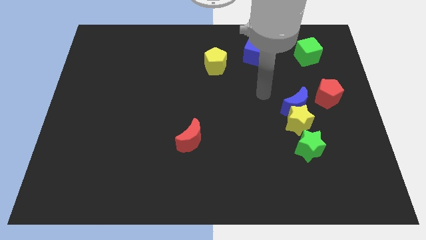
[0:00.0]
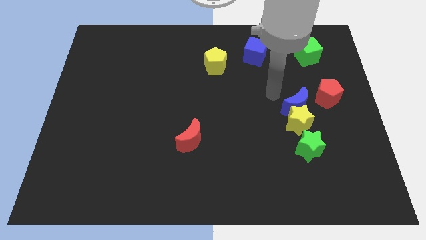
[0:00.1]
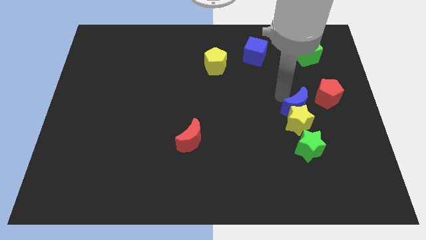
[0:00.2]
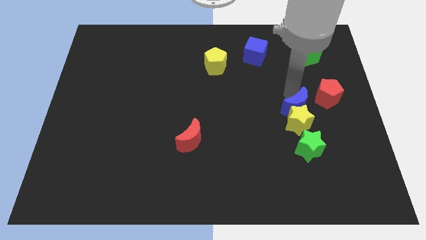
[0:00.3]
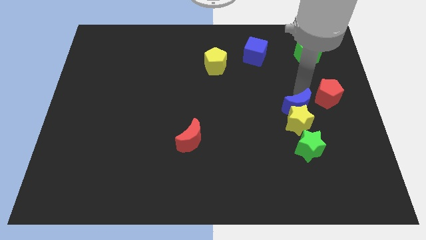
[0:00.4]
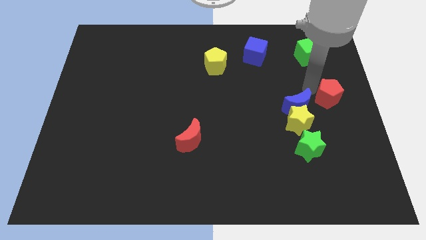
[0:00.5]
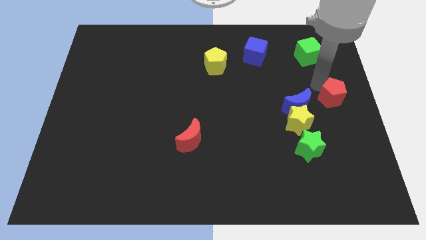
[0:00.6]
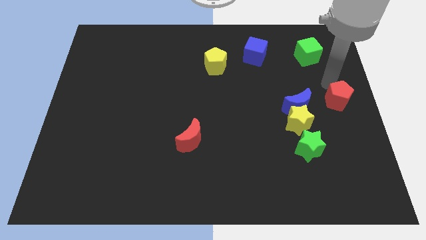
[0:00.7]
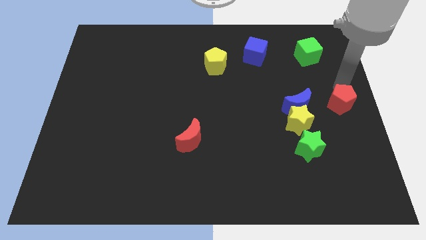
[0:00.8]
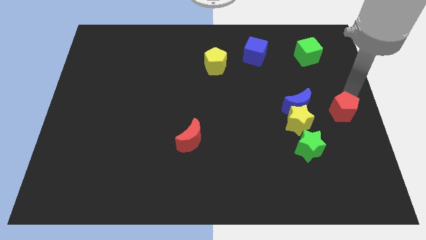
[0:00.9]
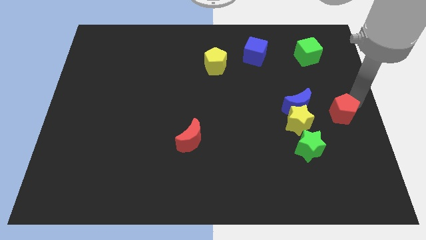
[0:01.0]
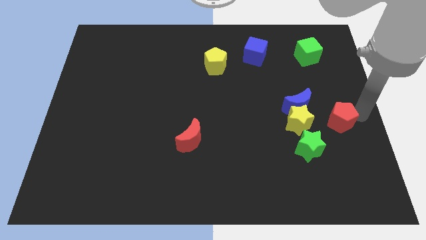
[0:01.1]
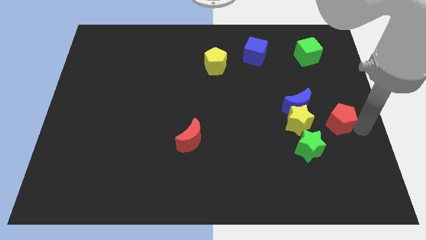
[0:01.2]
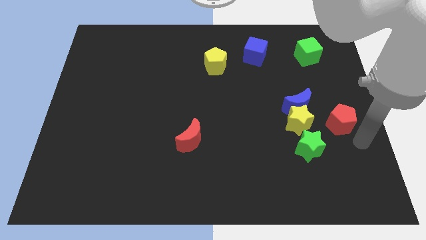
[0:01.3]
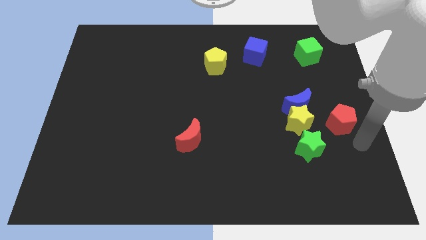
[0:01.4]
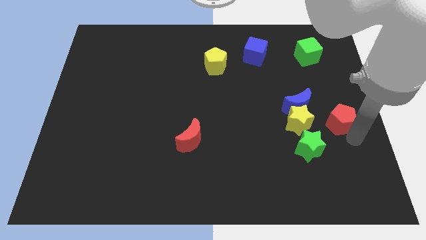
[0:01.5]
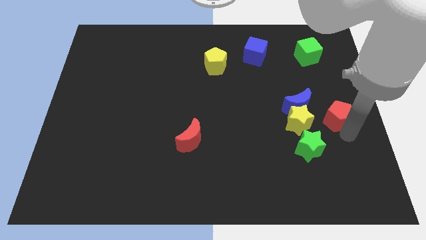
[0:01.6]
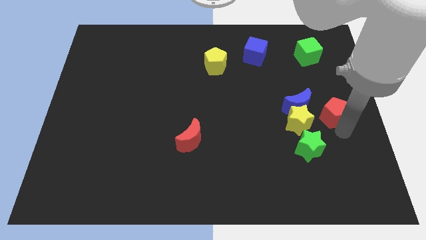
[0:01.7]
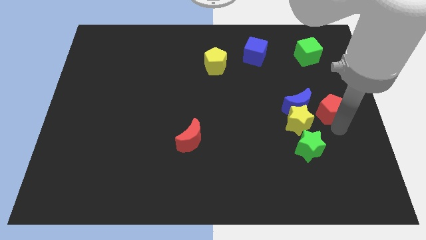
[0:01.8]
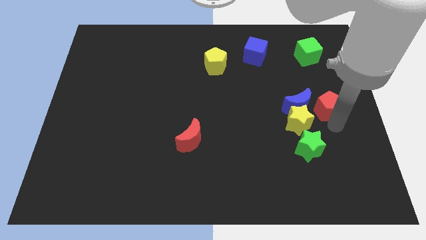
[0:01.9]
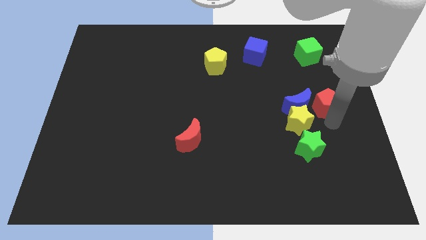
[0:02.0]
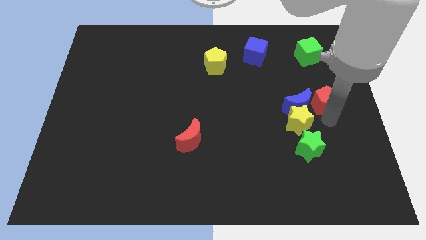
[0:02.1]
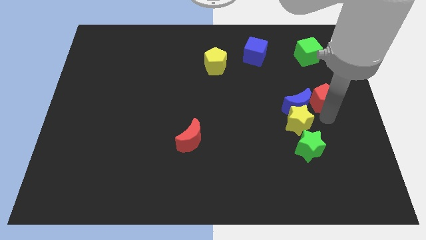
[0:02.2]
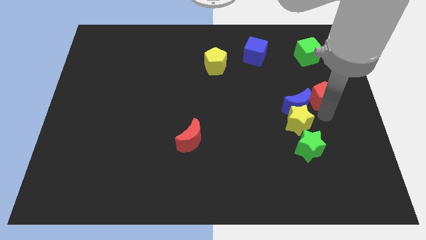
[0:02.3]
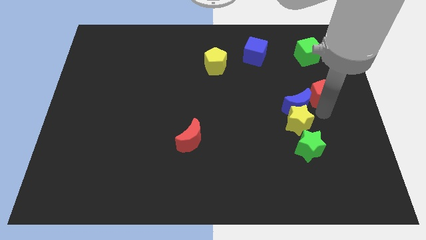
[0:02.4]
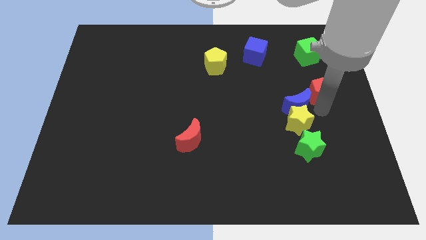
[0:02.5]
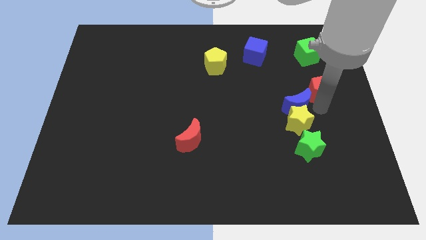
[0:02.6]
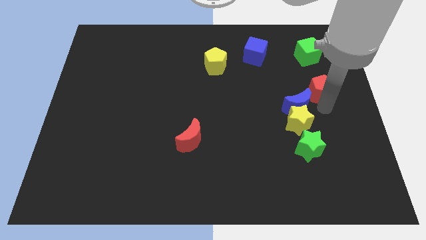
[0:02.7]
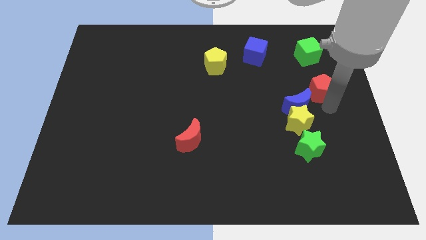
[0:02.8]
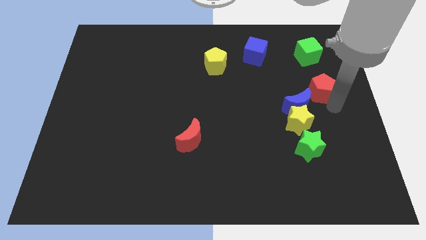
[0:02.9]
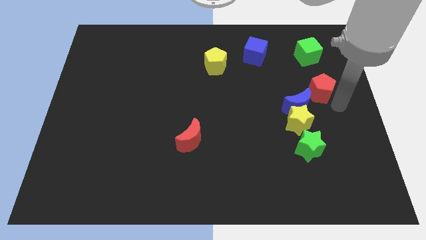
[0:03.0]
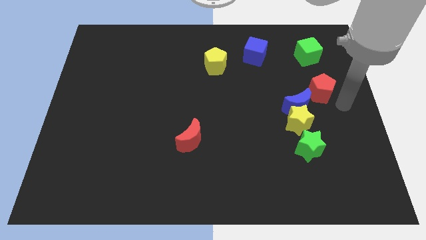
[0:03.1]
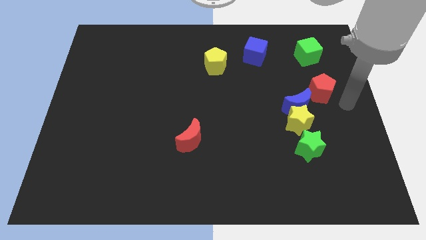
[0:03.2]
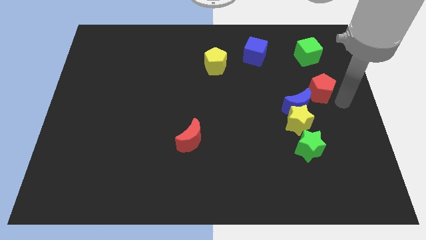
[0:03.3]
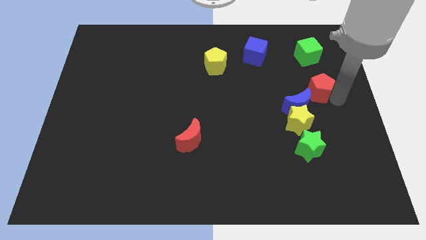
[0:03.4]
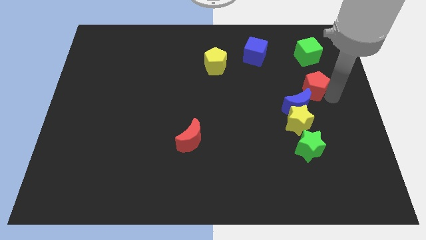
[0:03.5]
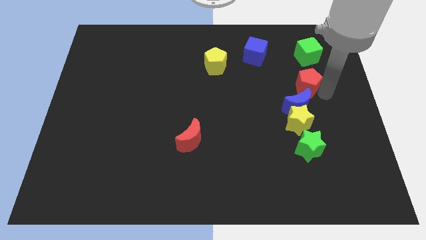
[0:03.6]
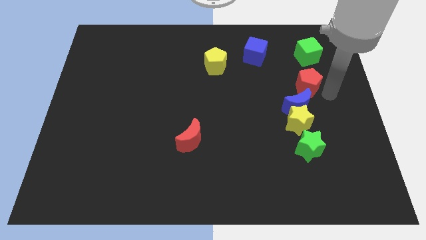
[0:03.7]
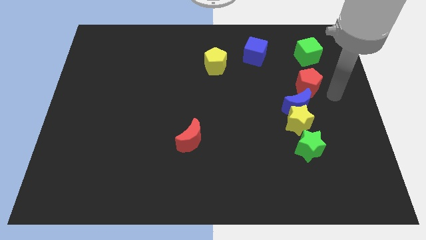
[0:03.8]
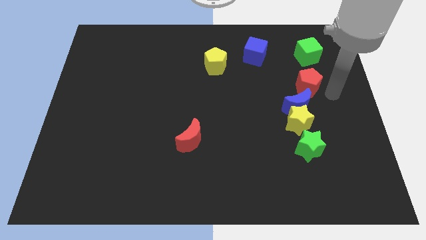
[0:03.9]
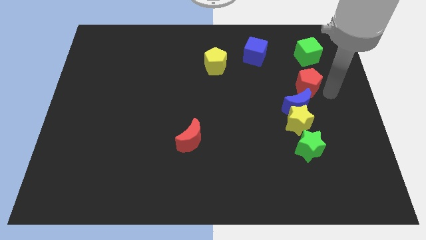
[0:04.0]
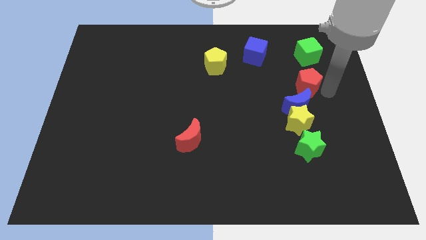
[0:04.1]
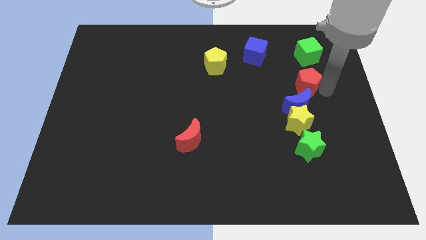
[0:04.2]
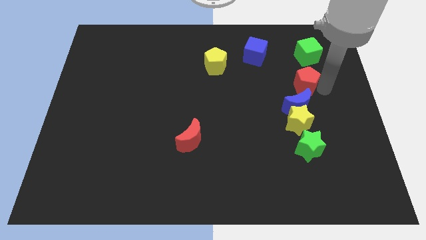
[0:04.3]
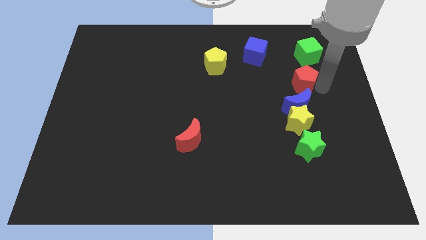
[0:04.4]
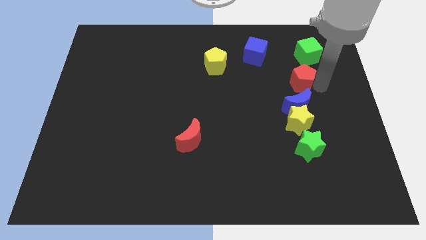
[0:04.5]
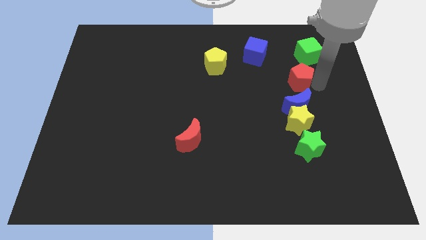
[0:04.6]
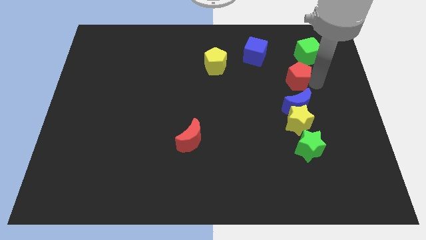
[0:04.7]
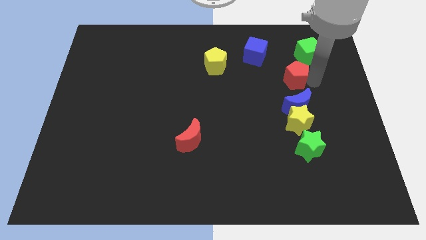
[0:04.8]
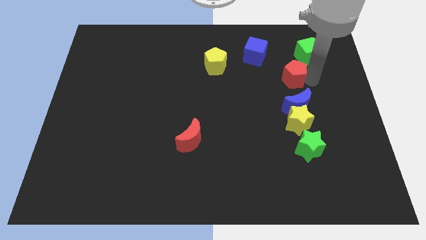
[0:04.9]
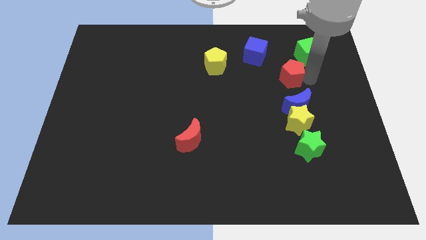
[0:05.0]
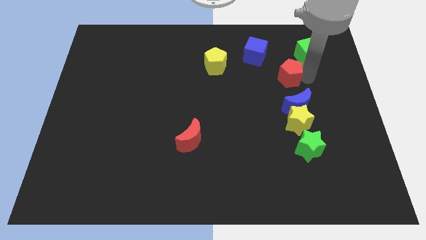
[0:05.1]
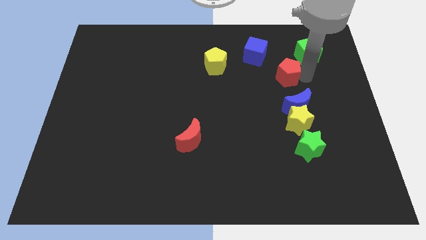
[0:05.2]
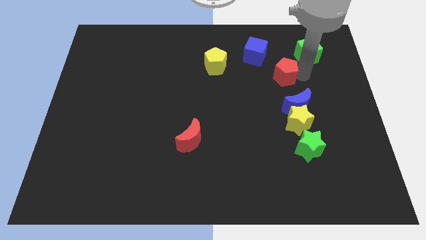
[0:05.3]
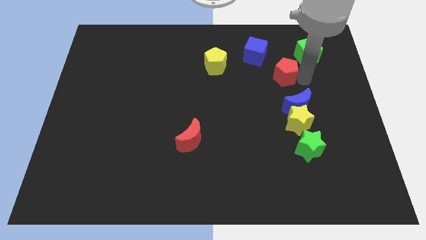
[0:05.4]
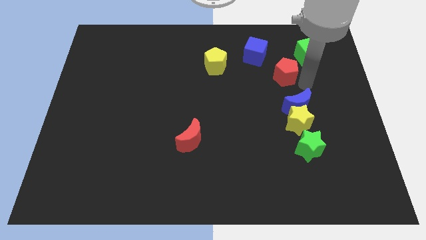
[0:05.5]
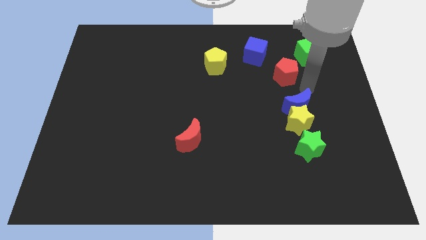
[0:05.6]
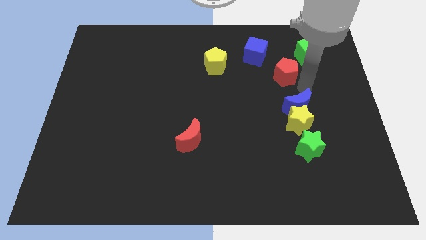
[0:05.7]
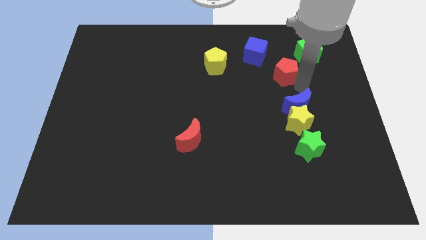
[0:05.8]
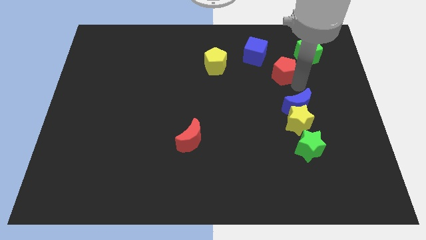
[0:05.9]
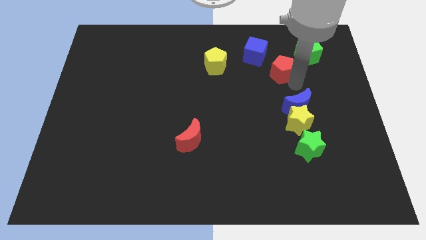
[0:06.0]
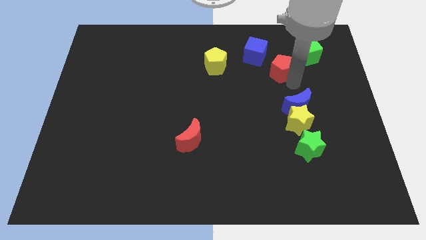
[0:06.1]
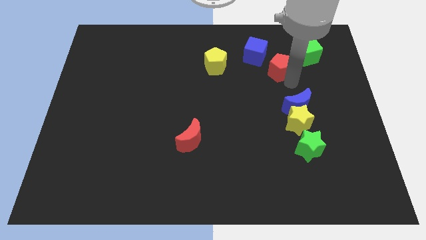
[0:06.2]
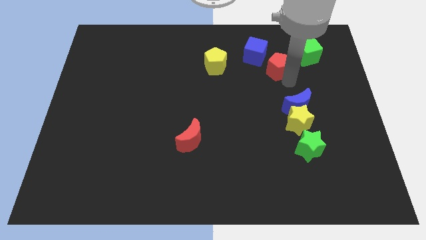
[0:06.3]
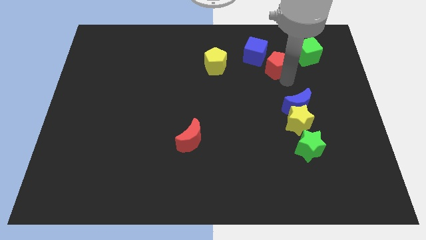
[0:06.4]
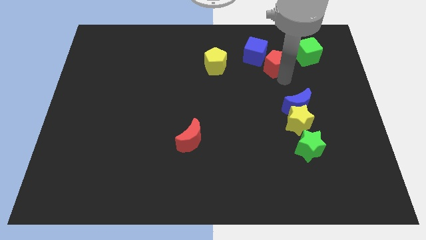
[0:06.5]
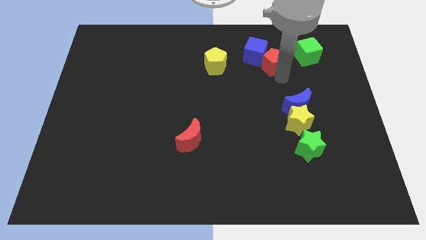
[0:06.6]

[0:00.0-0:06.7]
slide the red pentagon close to the blue cube

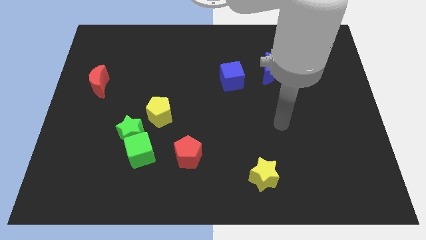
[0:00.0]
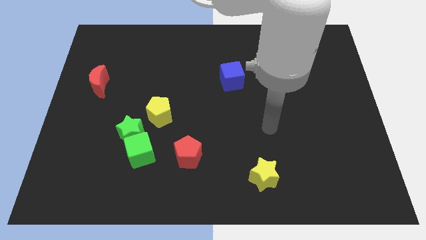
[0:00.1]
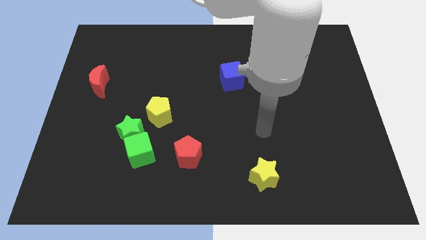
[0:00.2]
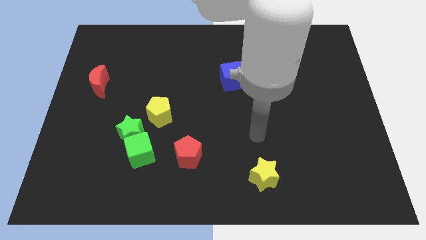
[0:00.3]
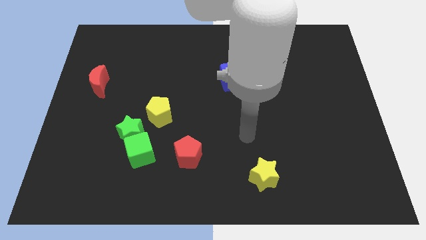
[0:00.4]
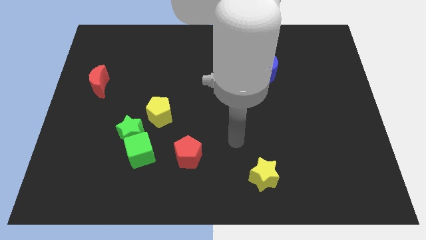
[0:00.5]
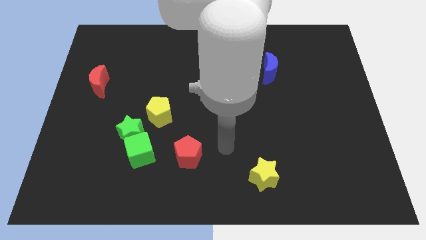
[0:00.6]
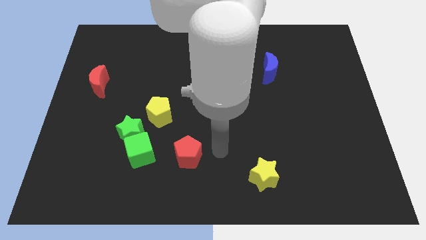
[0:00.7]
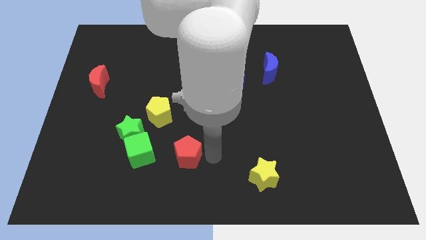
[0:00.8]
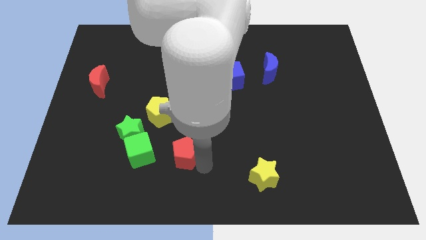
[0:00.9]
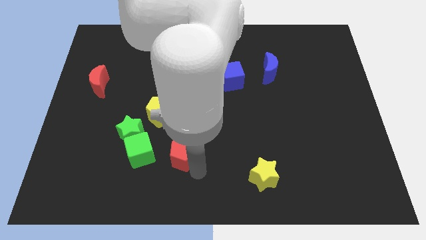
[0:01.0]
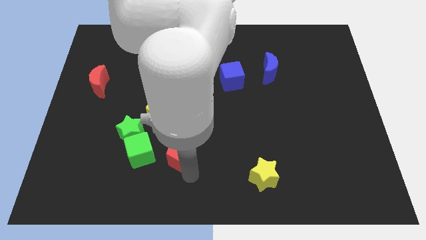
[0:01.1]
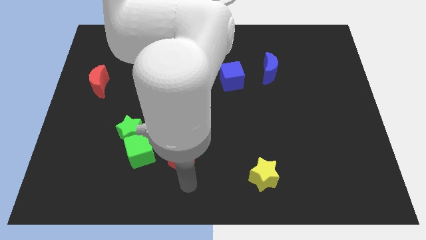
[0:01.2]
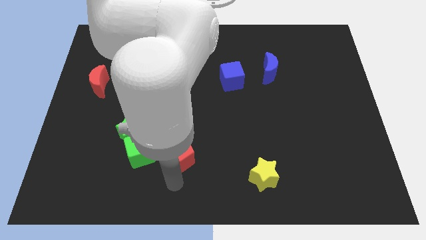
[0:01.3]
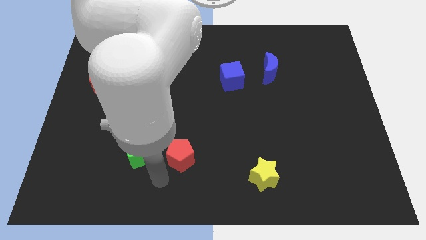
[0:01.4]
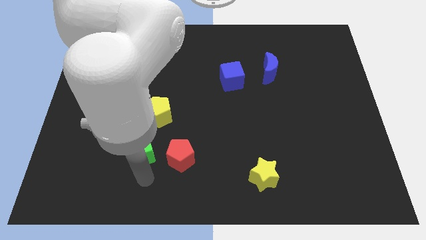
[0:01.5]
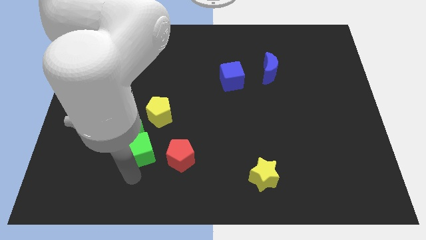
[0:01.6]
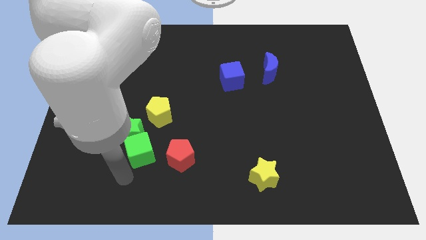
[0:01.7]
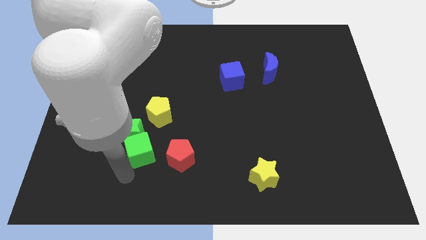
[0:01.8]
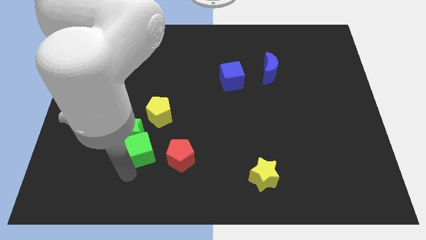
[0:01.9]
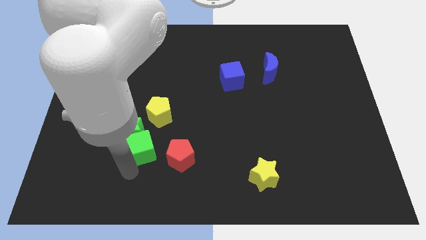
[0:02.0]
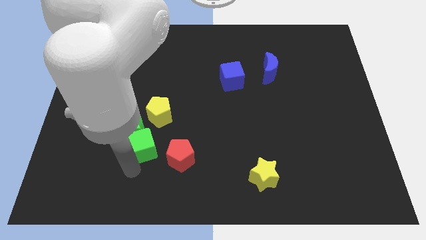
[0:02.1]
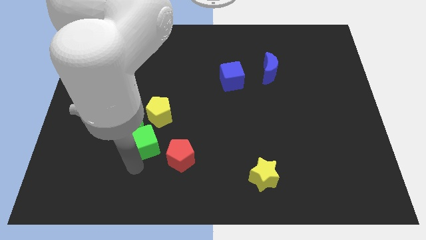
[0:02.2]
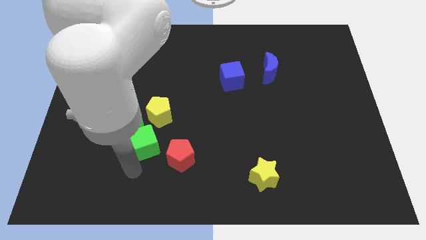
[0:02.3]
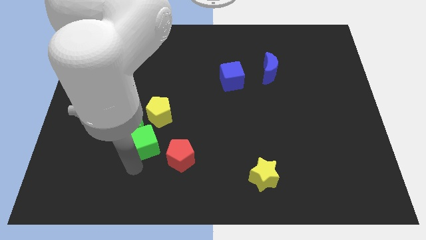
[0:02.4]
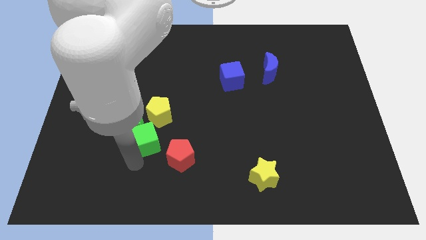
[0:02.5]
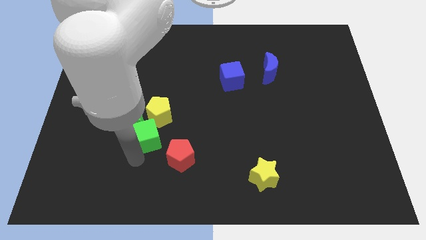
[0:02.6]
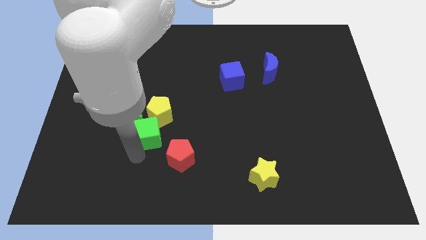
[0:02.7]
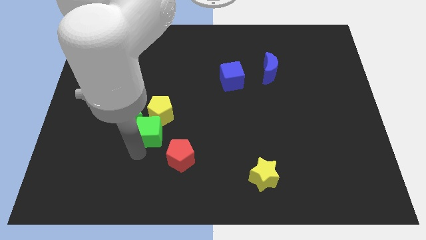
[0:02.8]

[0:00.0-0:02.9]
push the green cube close to the yellow pentagon
